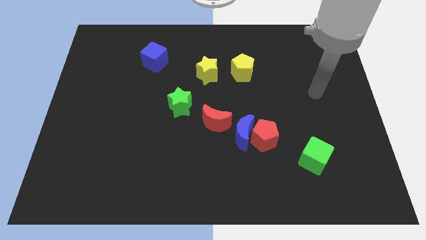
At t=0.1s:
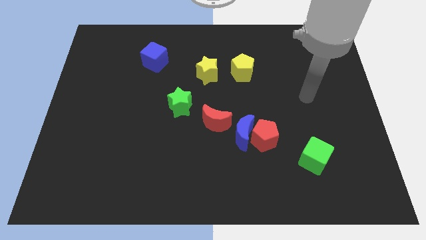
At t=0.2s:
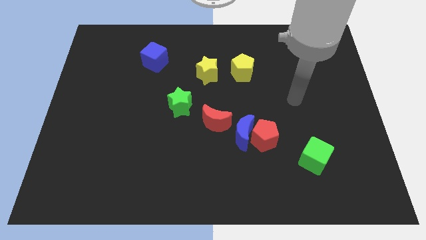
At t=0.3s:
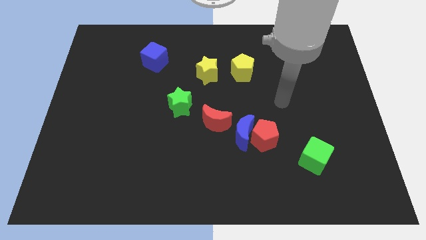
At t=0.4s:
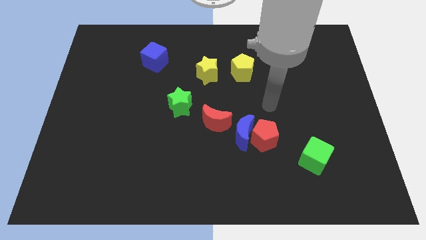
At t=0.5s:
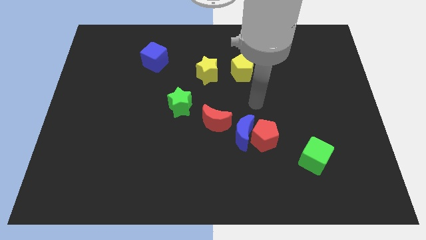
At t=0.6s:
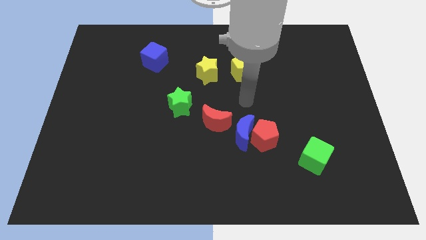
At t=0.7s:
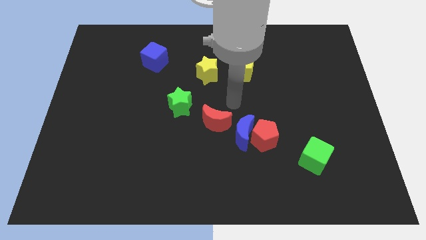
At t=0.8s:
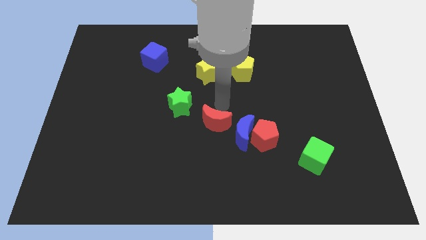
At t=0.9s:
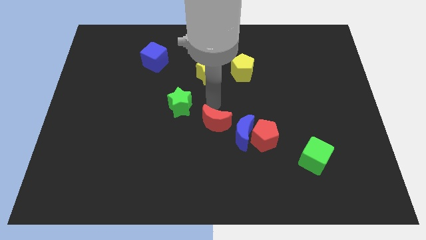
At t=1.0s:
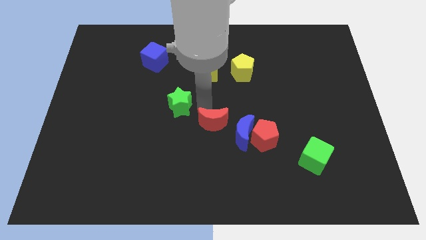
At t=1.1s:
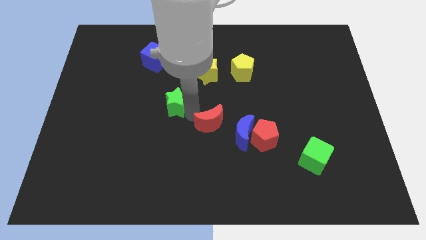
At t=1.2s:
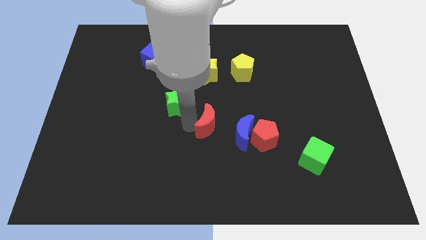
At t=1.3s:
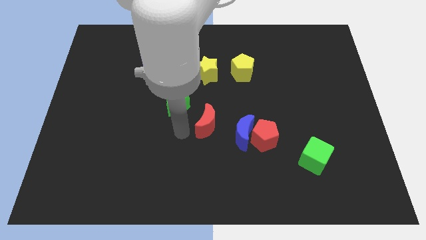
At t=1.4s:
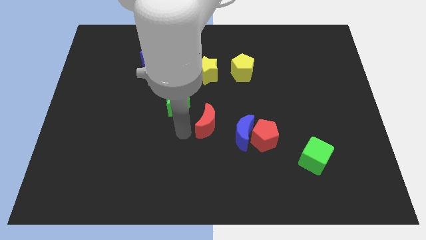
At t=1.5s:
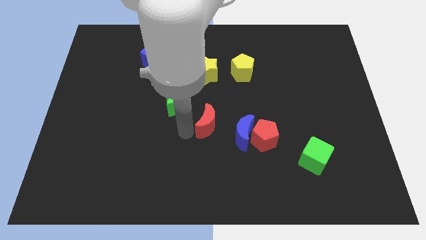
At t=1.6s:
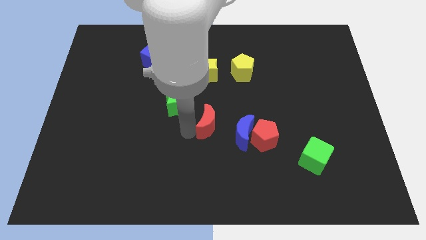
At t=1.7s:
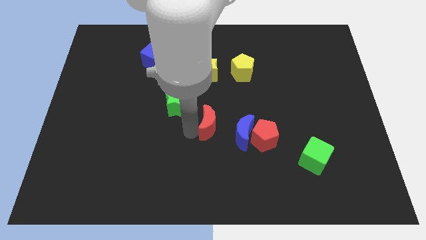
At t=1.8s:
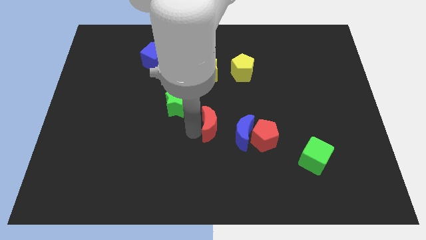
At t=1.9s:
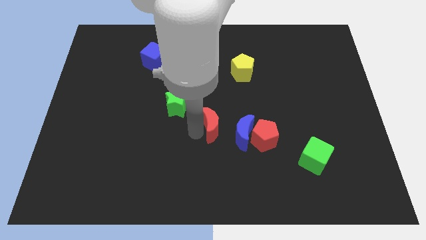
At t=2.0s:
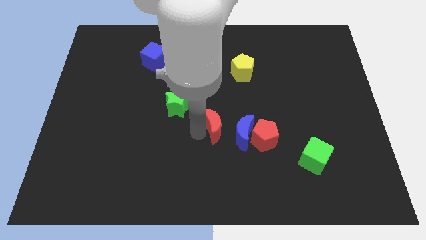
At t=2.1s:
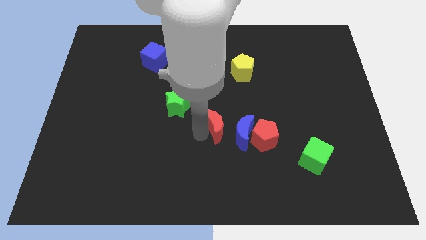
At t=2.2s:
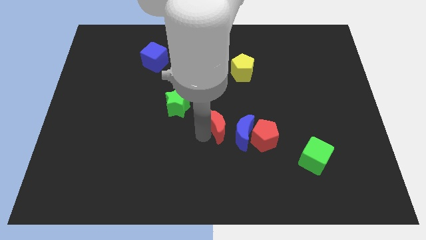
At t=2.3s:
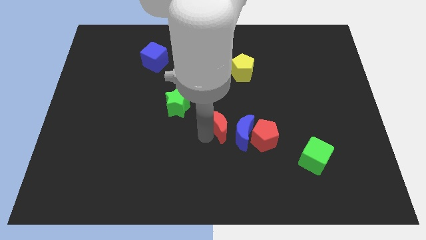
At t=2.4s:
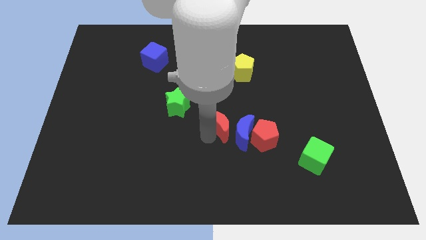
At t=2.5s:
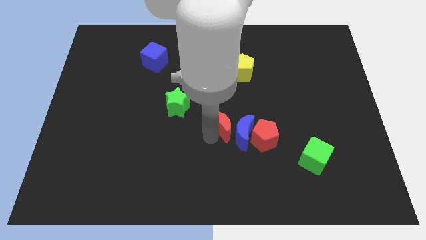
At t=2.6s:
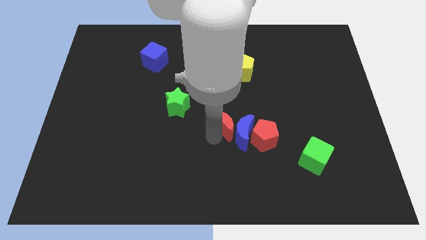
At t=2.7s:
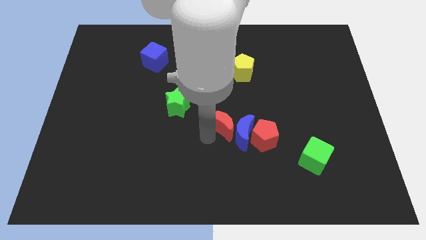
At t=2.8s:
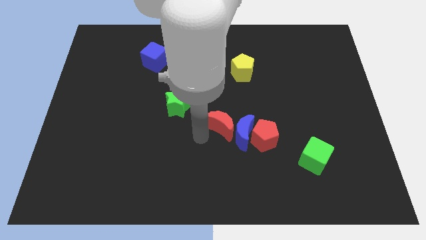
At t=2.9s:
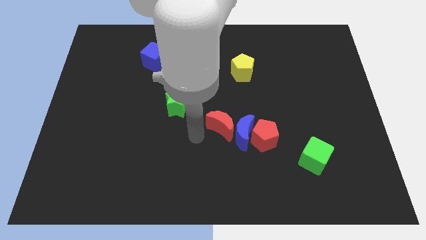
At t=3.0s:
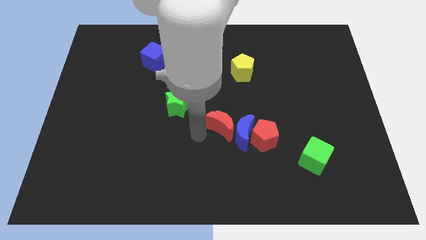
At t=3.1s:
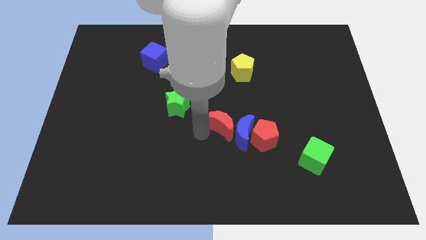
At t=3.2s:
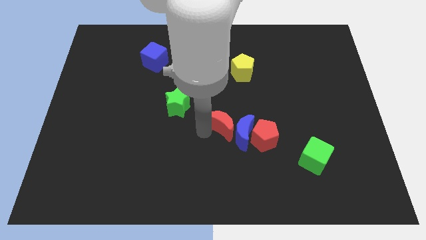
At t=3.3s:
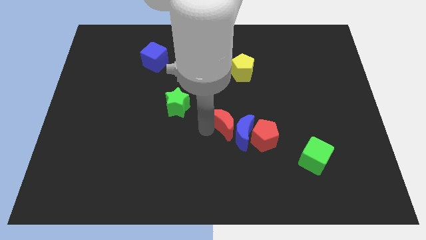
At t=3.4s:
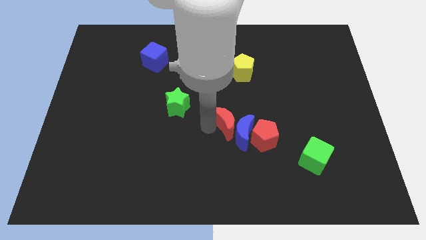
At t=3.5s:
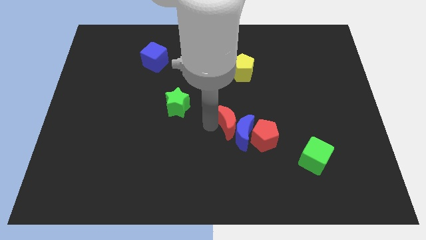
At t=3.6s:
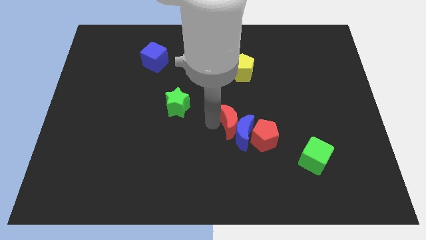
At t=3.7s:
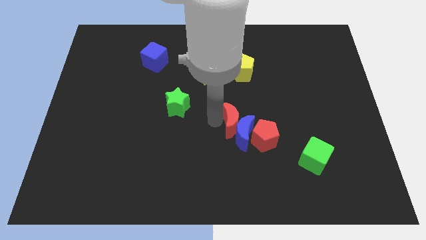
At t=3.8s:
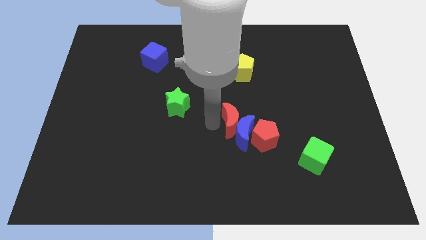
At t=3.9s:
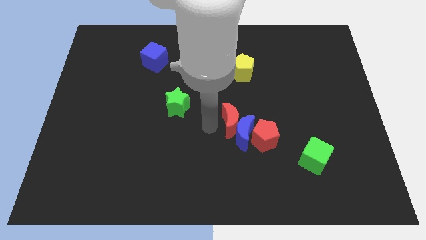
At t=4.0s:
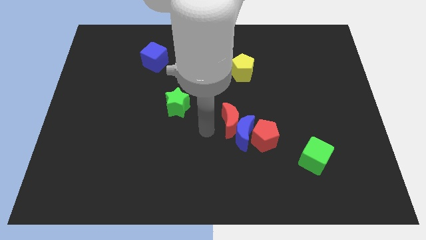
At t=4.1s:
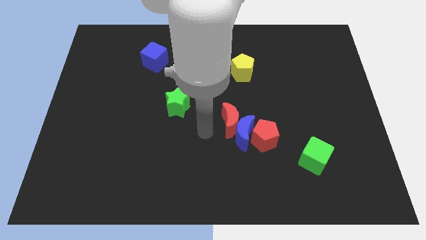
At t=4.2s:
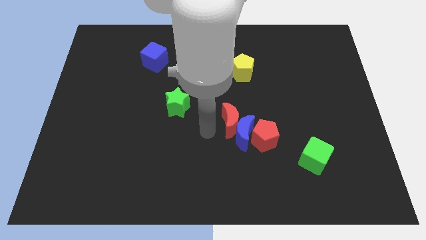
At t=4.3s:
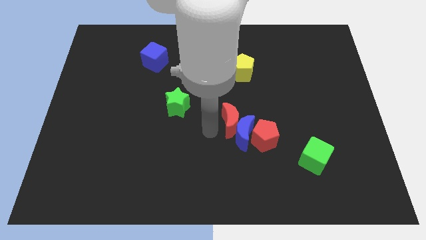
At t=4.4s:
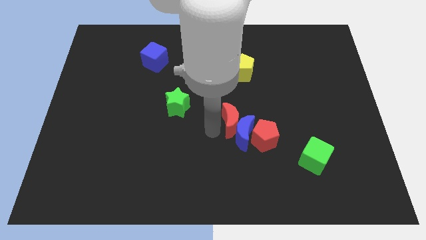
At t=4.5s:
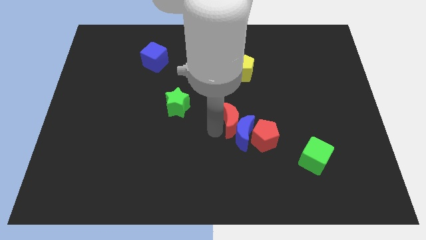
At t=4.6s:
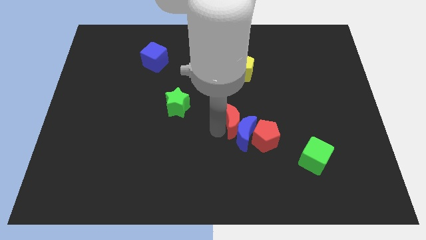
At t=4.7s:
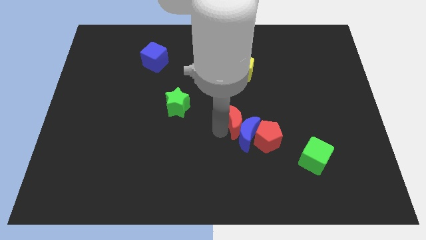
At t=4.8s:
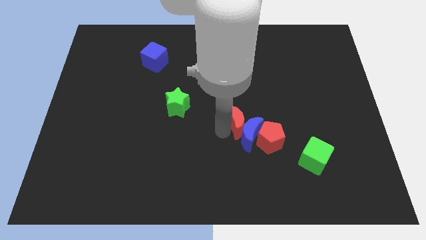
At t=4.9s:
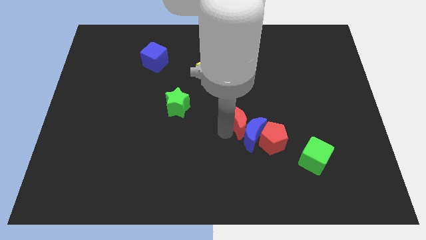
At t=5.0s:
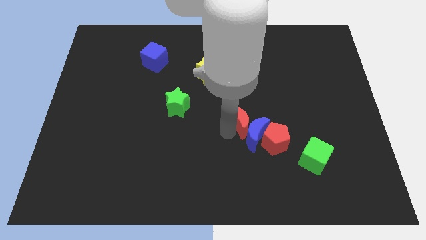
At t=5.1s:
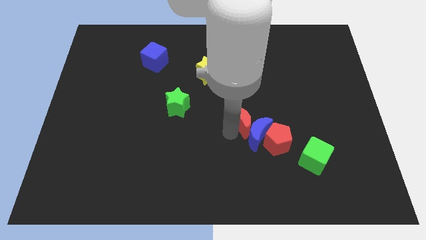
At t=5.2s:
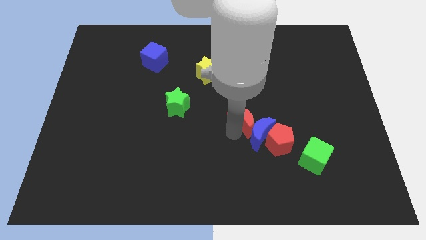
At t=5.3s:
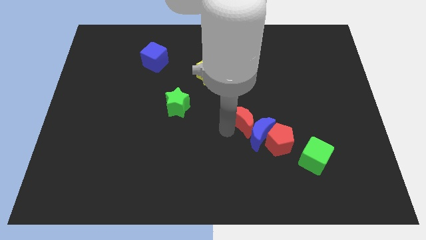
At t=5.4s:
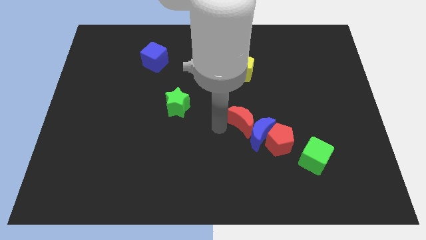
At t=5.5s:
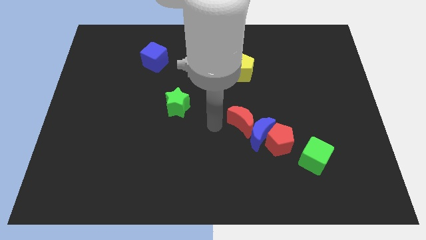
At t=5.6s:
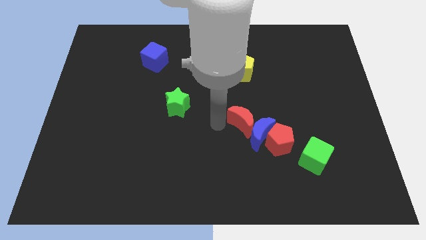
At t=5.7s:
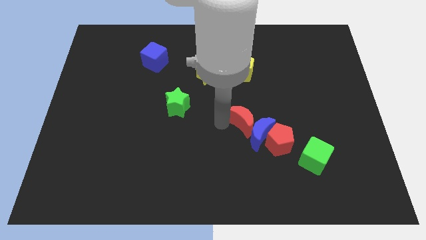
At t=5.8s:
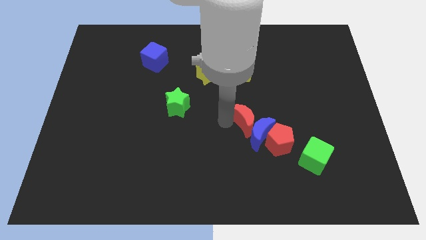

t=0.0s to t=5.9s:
slide the red moon right somewhat

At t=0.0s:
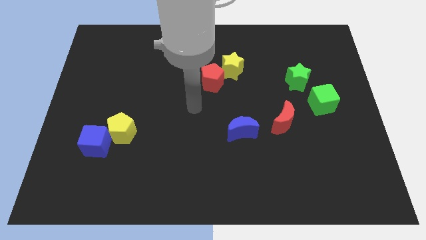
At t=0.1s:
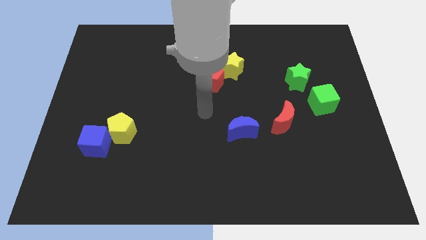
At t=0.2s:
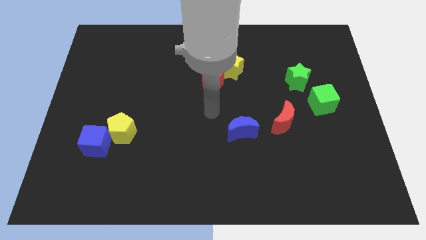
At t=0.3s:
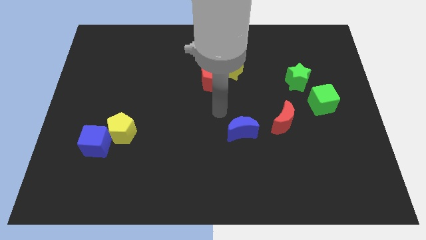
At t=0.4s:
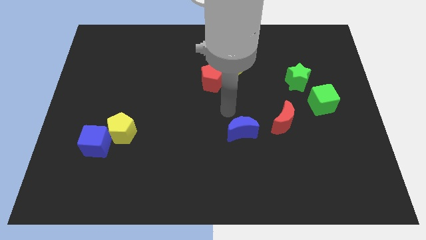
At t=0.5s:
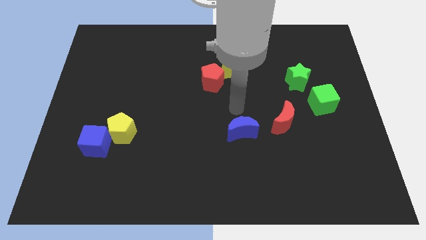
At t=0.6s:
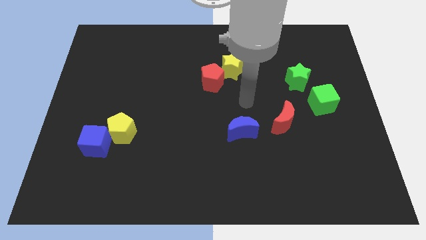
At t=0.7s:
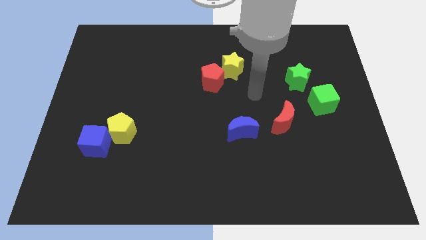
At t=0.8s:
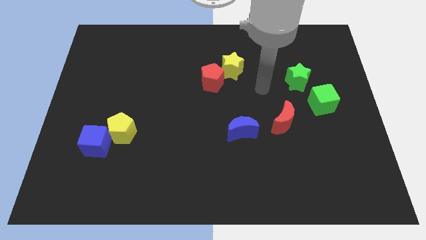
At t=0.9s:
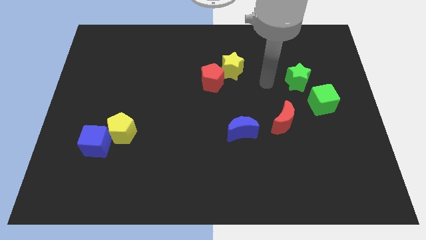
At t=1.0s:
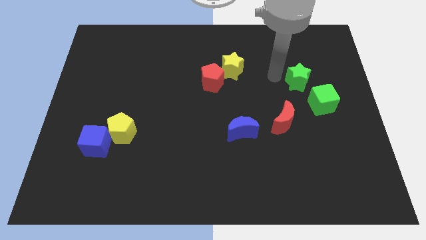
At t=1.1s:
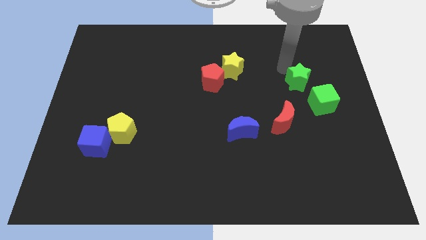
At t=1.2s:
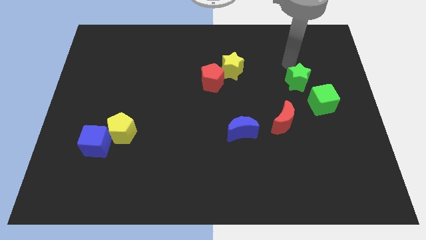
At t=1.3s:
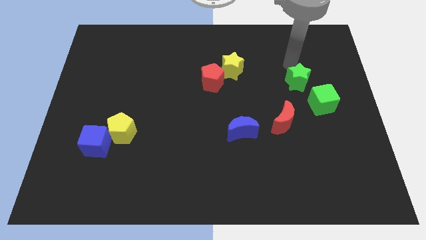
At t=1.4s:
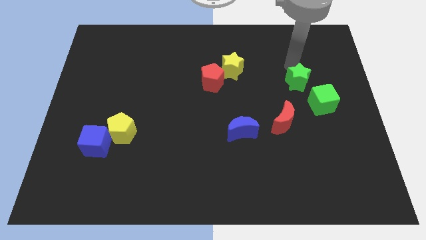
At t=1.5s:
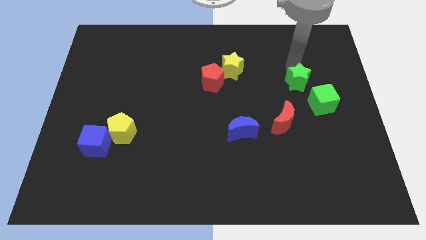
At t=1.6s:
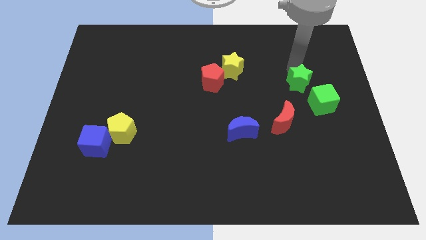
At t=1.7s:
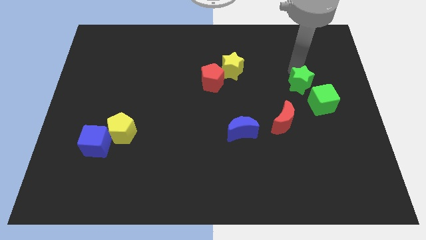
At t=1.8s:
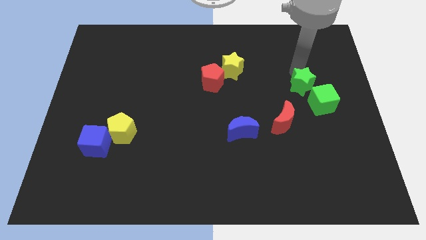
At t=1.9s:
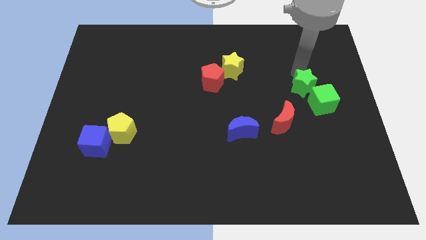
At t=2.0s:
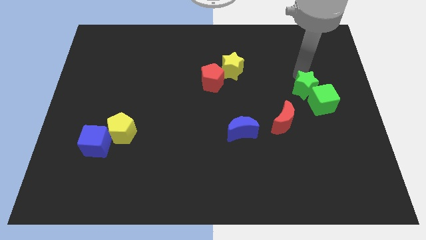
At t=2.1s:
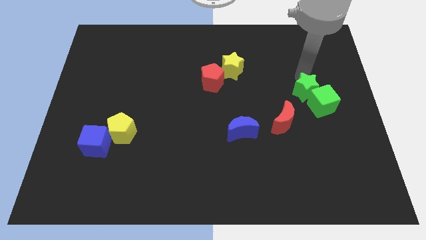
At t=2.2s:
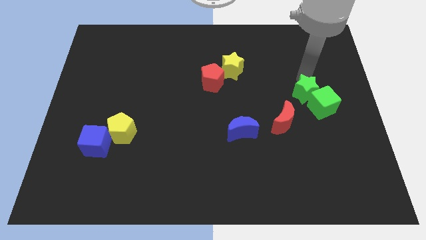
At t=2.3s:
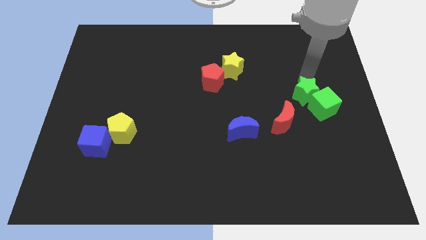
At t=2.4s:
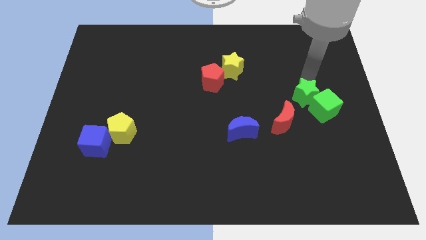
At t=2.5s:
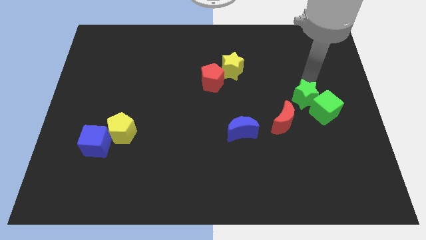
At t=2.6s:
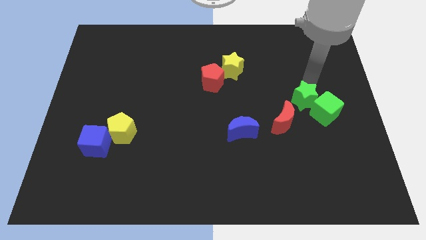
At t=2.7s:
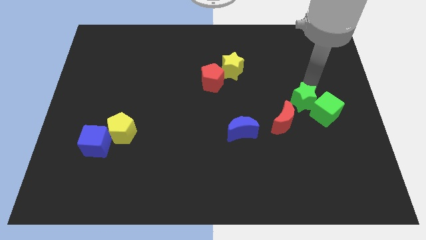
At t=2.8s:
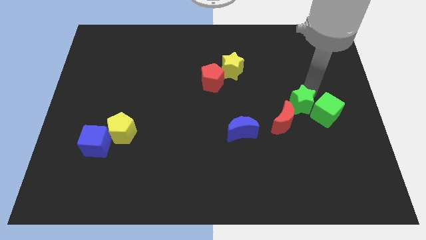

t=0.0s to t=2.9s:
slightly slide the green star downwards
